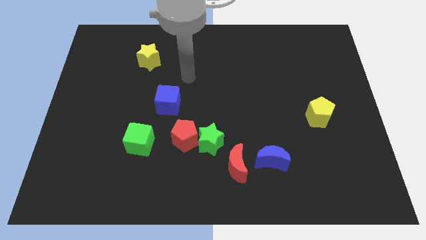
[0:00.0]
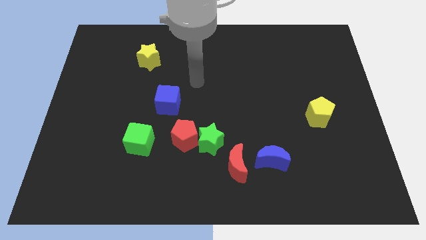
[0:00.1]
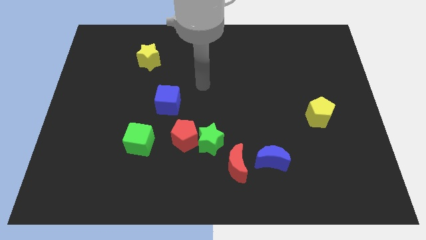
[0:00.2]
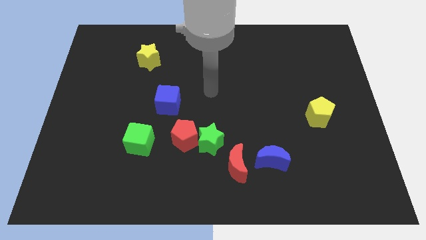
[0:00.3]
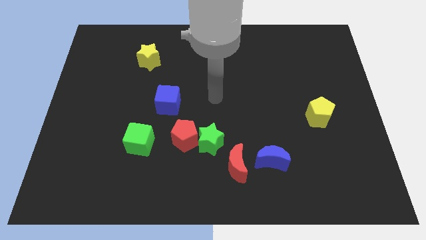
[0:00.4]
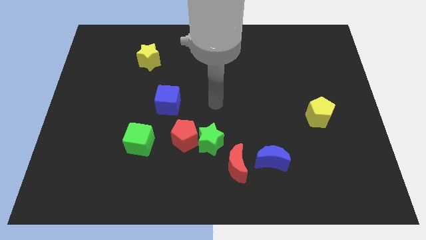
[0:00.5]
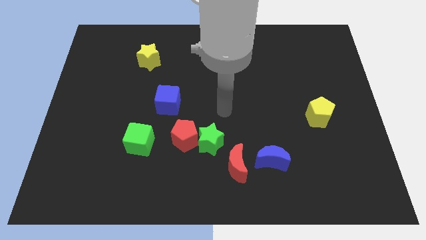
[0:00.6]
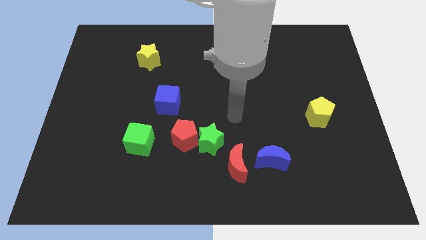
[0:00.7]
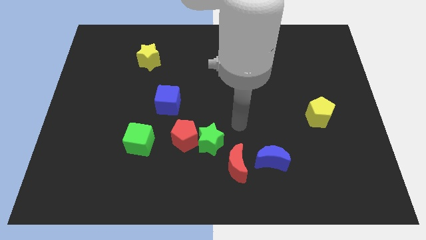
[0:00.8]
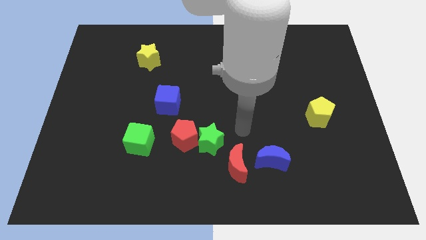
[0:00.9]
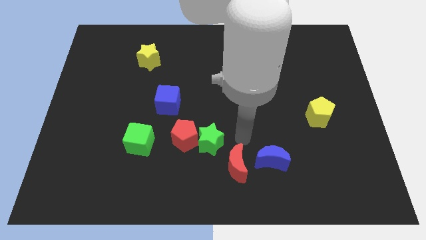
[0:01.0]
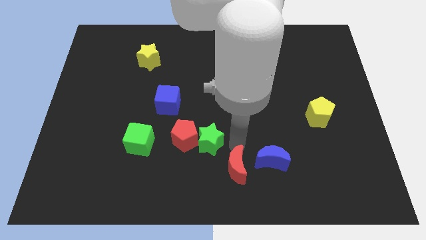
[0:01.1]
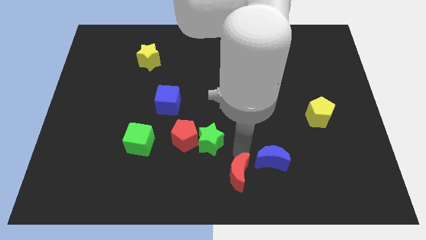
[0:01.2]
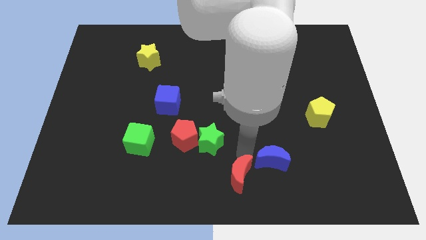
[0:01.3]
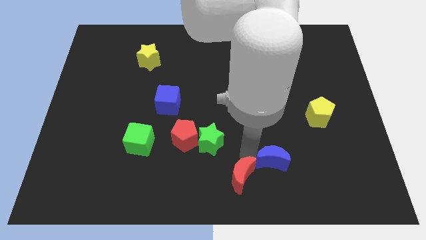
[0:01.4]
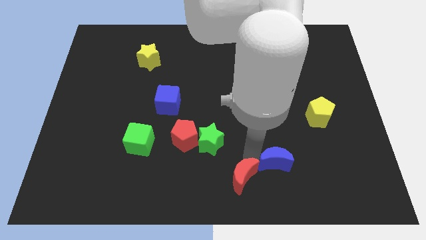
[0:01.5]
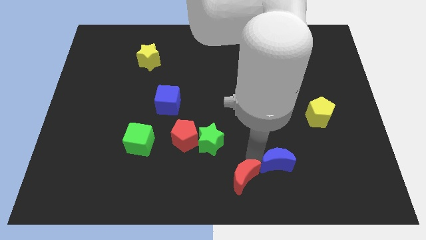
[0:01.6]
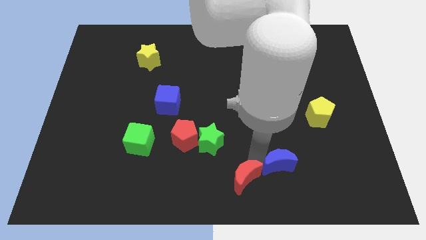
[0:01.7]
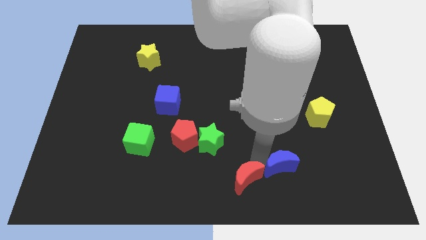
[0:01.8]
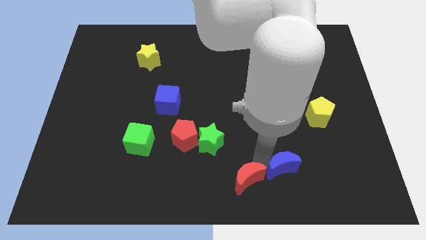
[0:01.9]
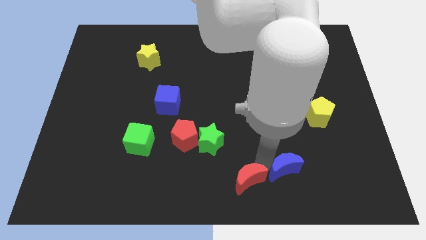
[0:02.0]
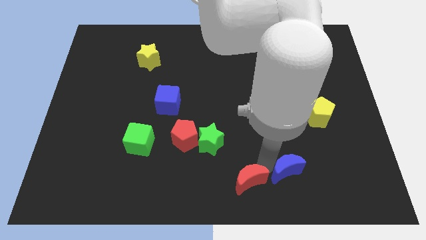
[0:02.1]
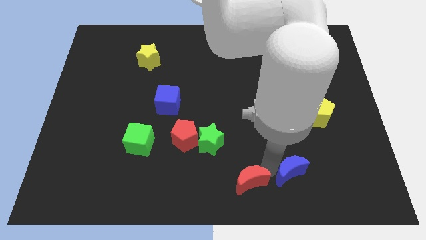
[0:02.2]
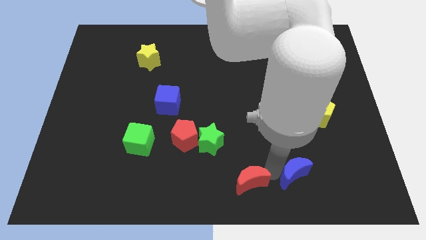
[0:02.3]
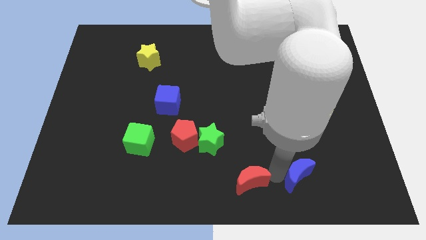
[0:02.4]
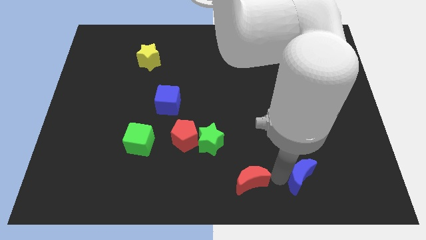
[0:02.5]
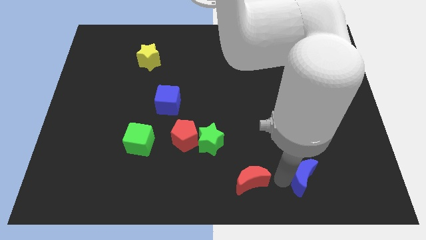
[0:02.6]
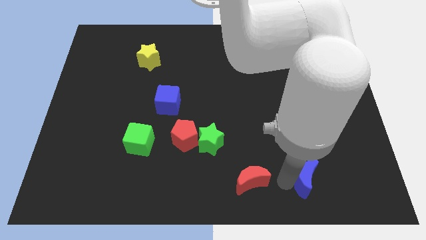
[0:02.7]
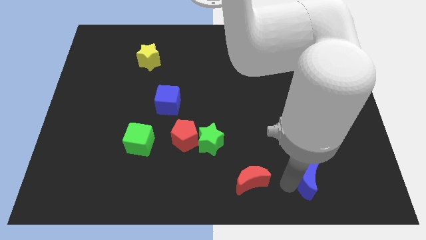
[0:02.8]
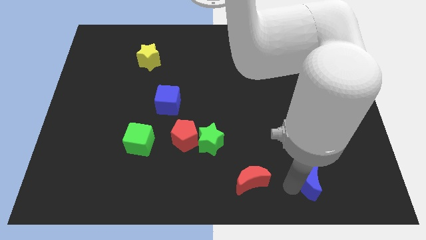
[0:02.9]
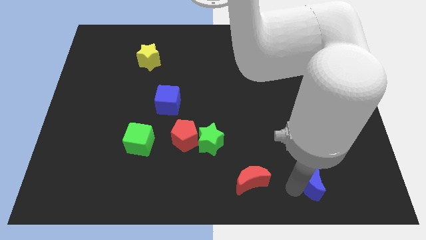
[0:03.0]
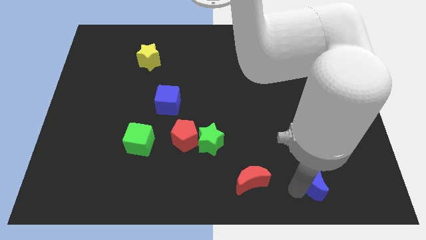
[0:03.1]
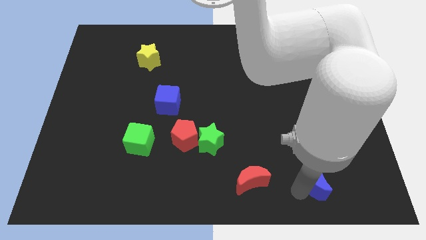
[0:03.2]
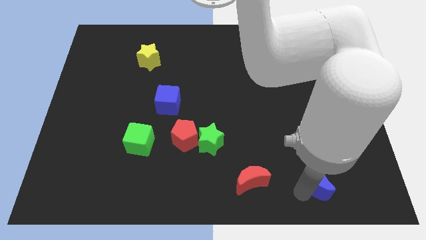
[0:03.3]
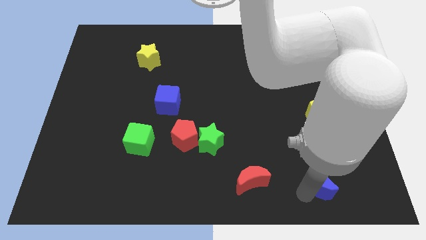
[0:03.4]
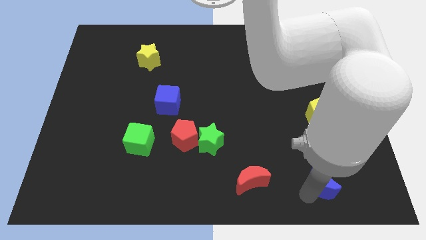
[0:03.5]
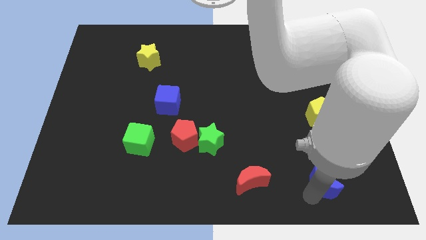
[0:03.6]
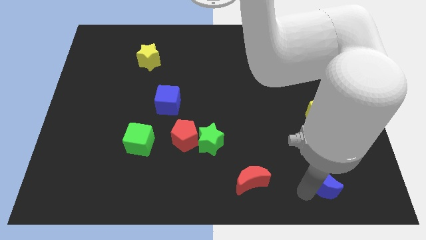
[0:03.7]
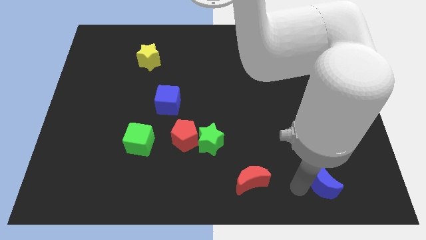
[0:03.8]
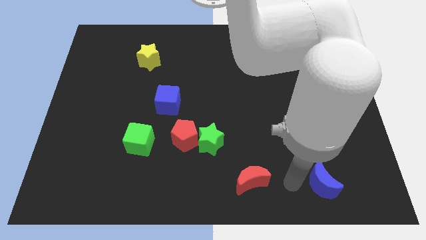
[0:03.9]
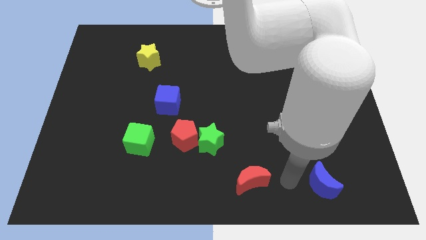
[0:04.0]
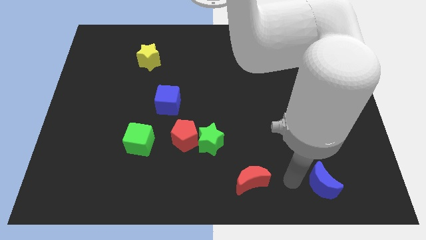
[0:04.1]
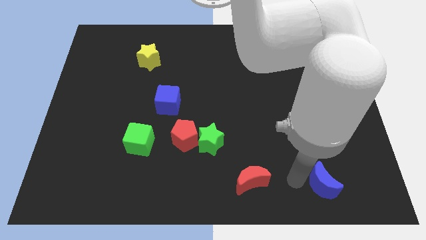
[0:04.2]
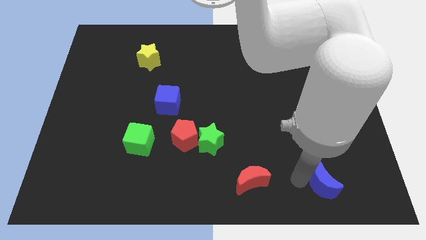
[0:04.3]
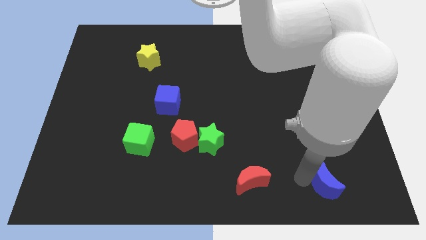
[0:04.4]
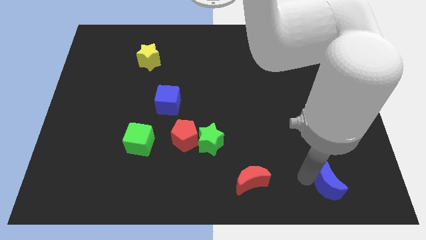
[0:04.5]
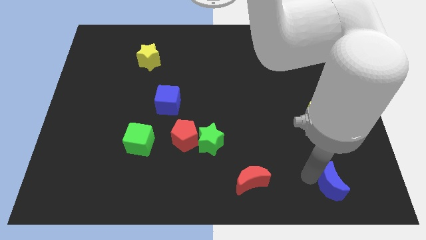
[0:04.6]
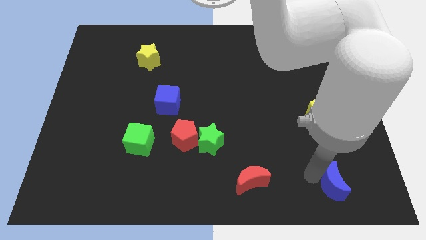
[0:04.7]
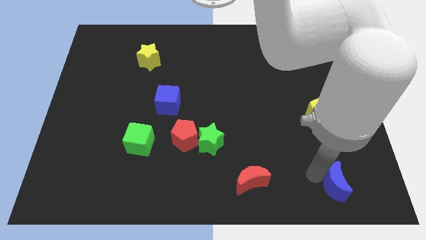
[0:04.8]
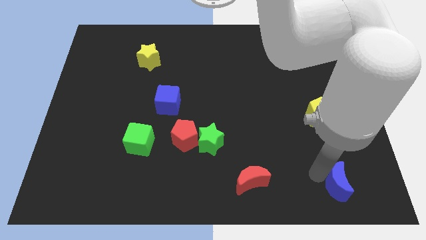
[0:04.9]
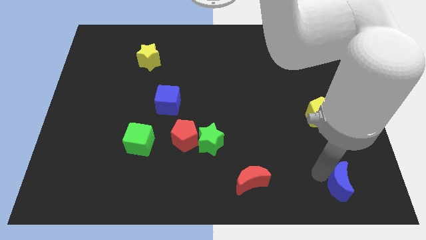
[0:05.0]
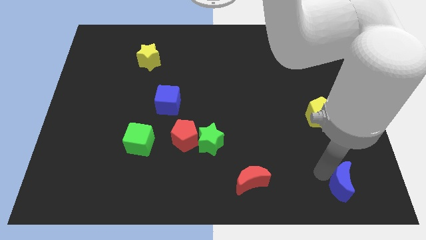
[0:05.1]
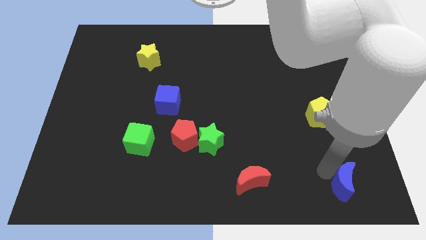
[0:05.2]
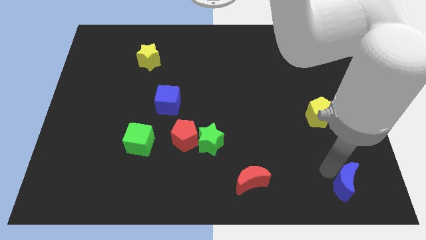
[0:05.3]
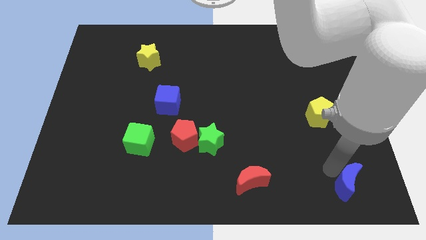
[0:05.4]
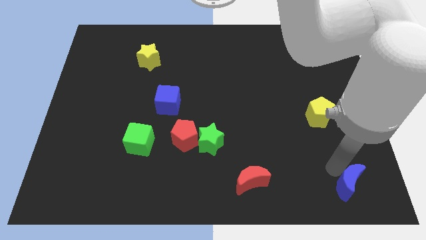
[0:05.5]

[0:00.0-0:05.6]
push the blue moon to the lower right corner

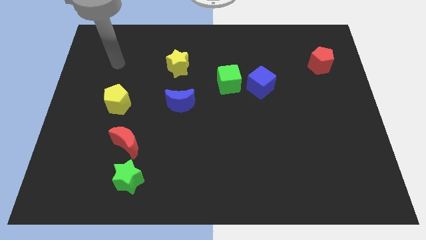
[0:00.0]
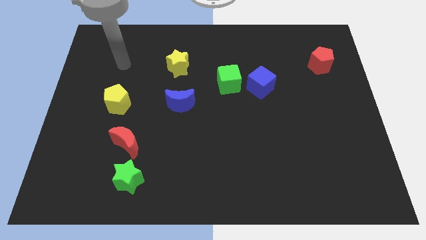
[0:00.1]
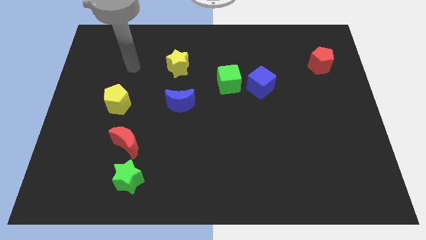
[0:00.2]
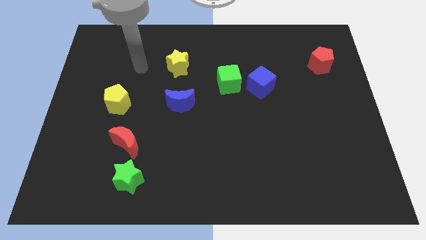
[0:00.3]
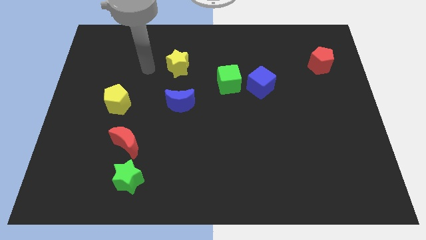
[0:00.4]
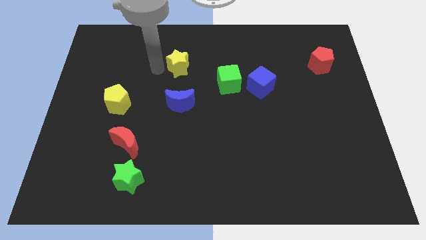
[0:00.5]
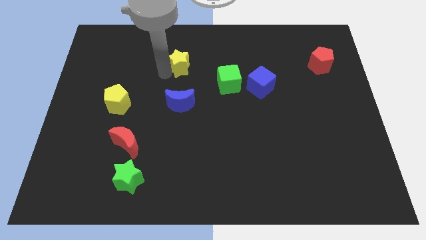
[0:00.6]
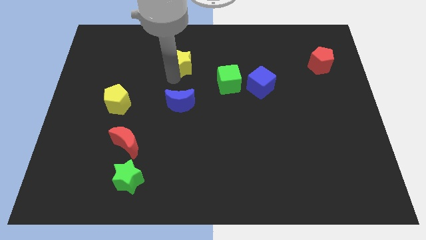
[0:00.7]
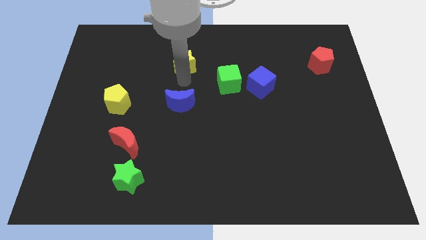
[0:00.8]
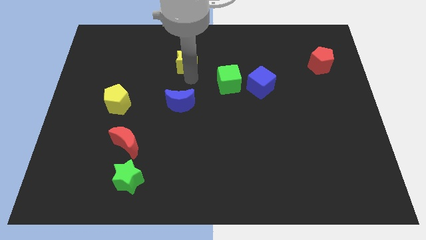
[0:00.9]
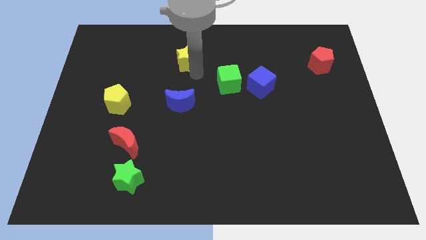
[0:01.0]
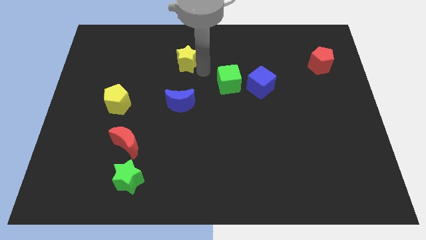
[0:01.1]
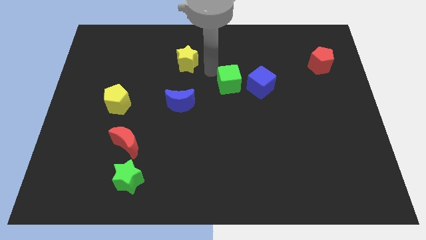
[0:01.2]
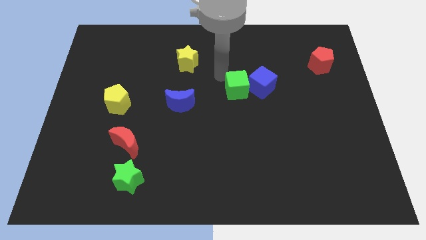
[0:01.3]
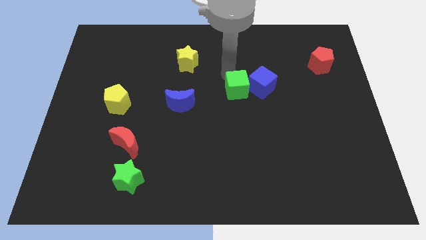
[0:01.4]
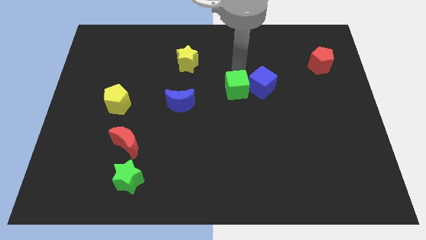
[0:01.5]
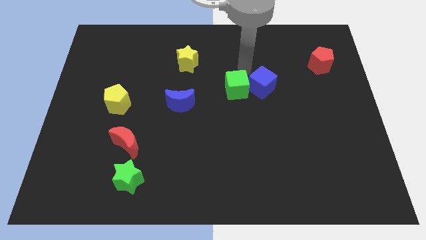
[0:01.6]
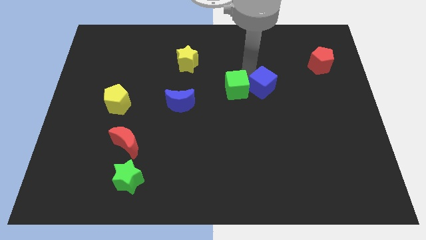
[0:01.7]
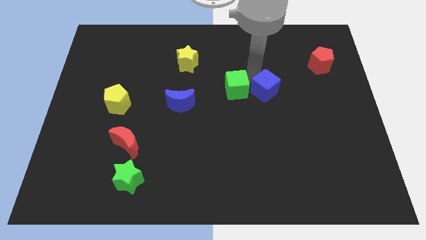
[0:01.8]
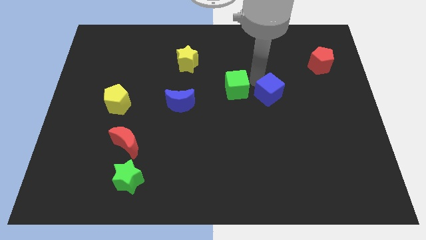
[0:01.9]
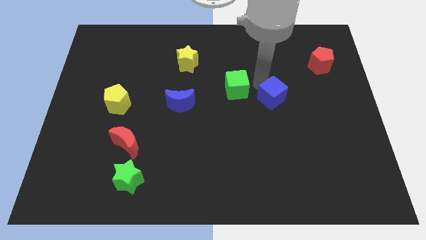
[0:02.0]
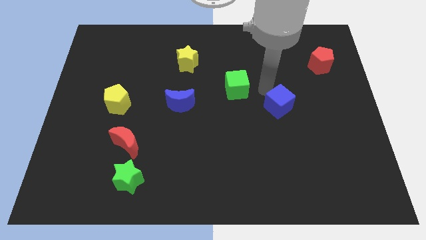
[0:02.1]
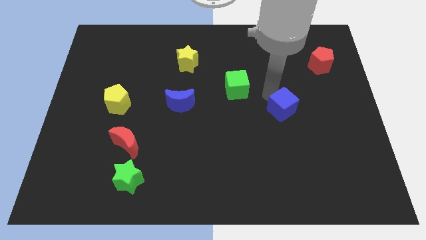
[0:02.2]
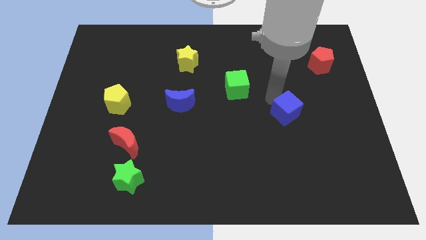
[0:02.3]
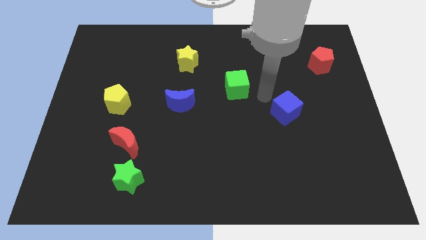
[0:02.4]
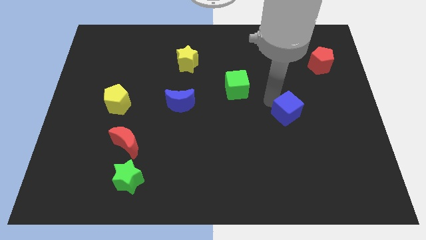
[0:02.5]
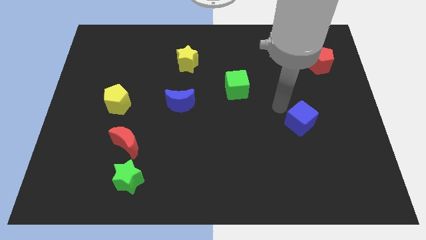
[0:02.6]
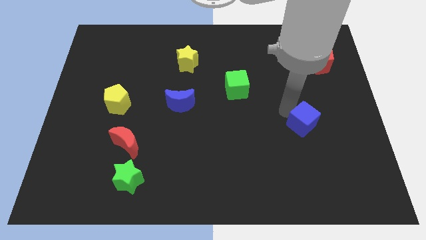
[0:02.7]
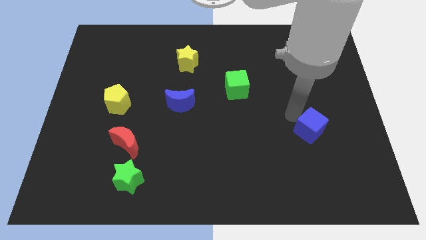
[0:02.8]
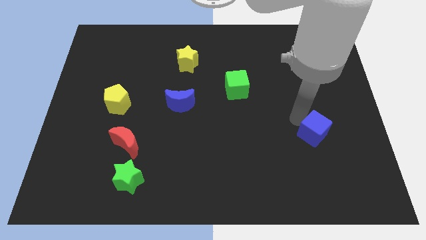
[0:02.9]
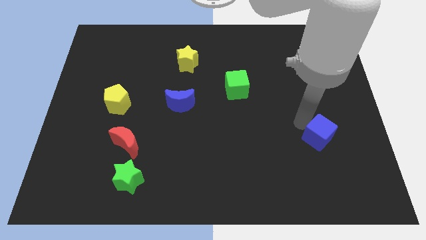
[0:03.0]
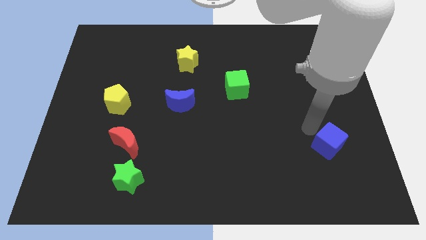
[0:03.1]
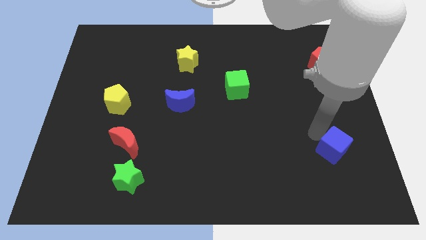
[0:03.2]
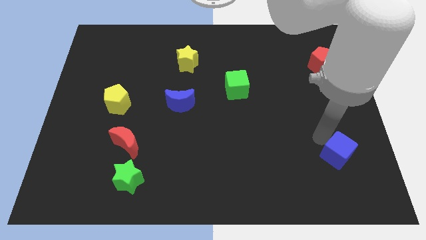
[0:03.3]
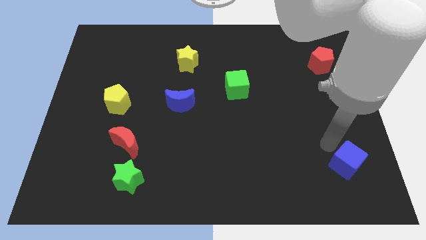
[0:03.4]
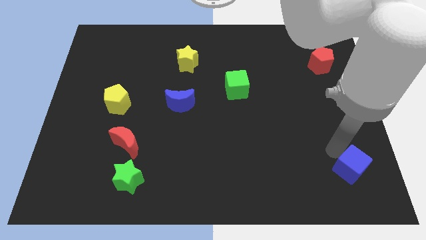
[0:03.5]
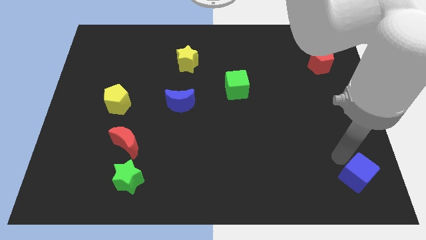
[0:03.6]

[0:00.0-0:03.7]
slide the blue cube to the bottom right corner
